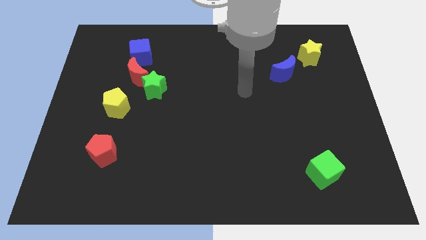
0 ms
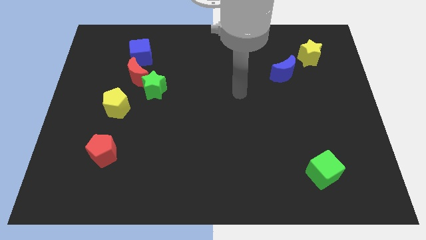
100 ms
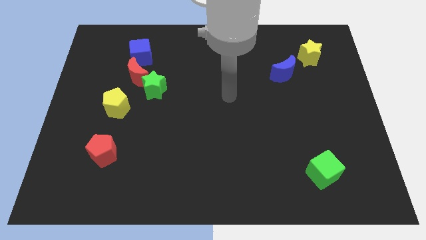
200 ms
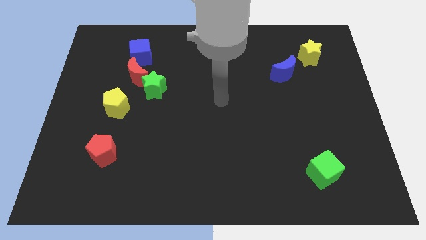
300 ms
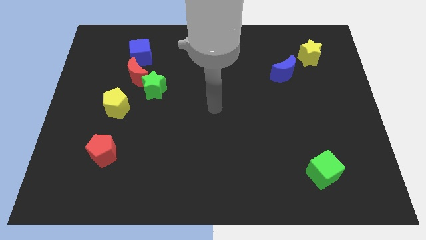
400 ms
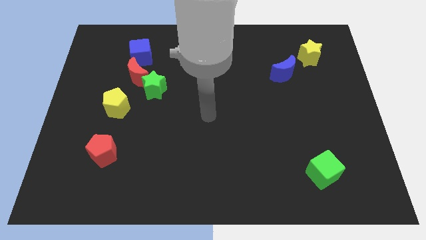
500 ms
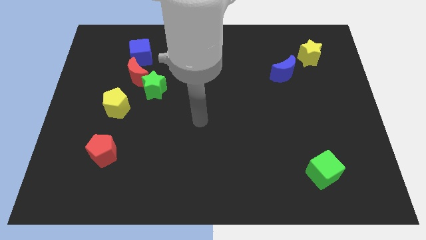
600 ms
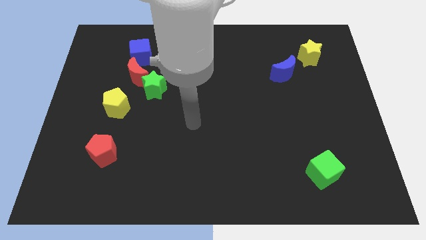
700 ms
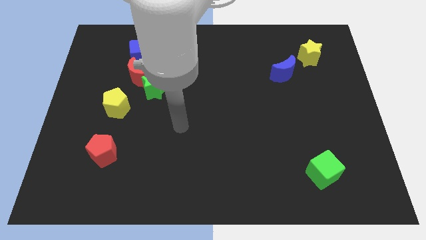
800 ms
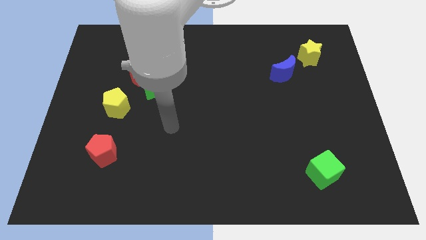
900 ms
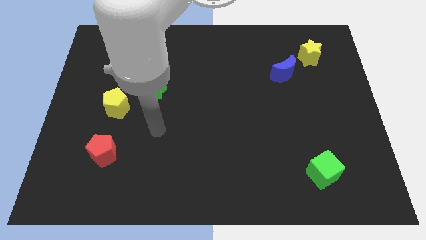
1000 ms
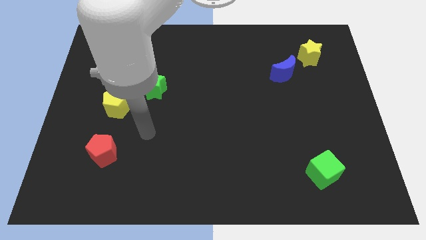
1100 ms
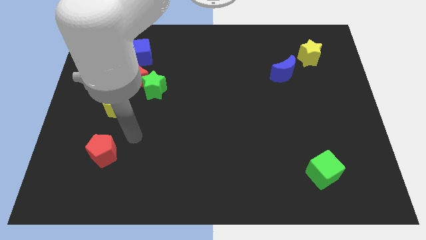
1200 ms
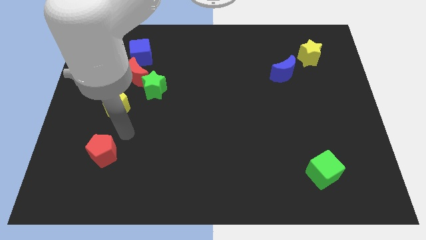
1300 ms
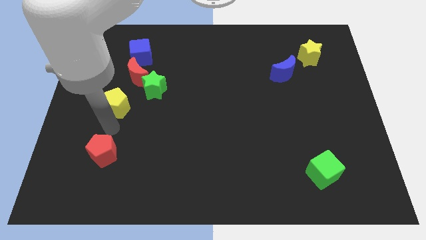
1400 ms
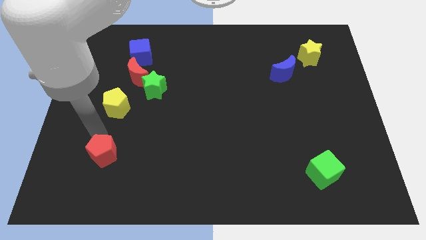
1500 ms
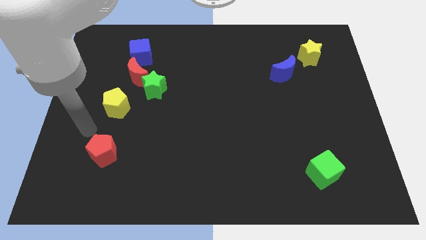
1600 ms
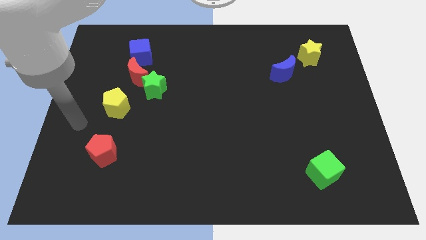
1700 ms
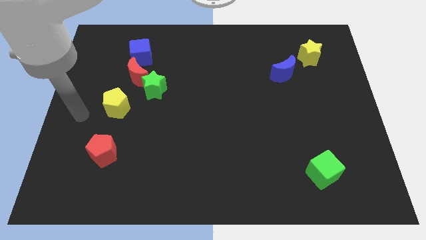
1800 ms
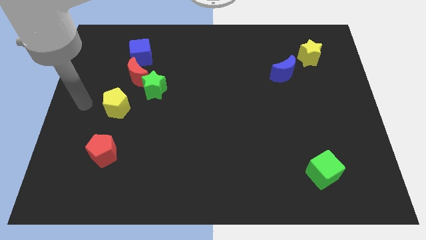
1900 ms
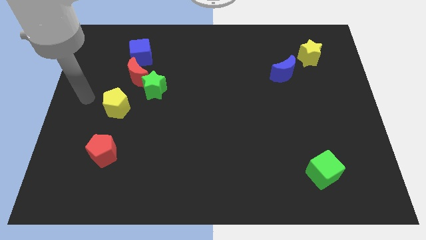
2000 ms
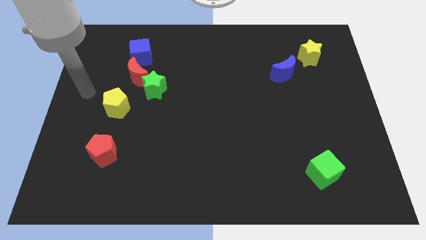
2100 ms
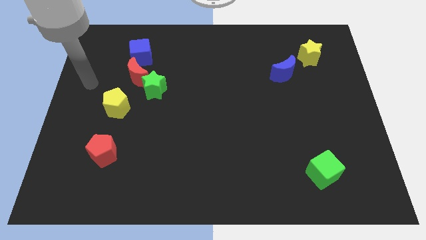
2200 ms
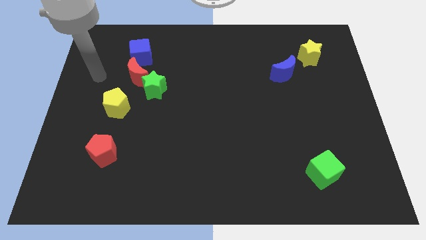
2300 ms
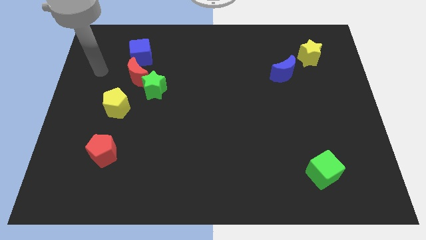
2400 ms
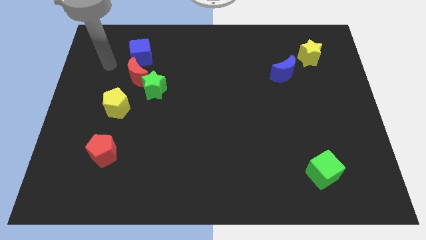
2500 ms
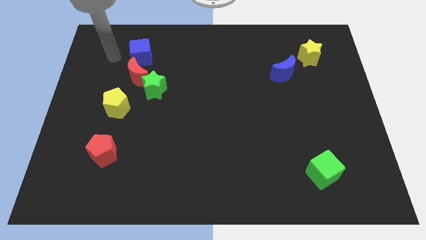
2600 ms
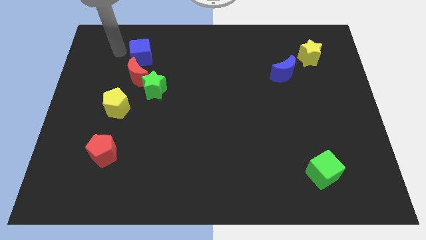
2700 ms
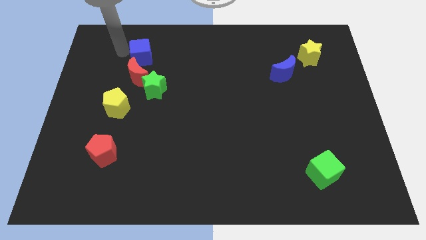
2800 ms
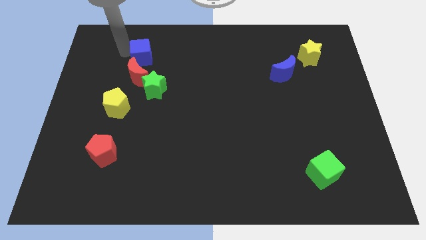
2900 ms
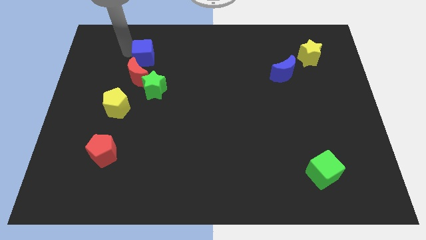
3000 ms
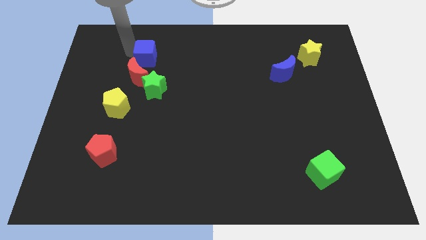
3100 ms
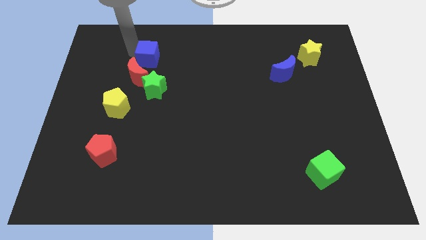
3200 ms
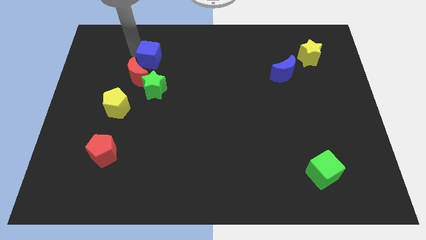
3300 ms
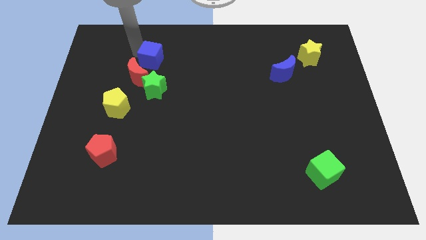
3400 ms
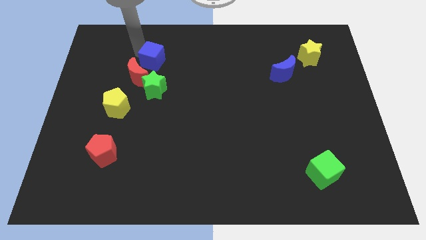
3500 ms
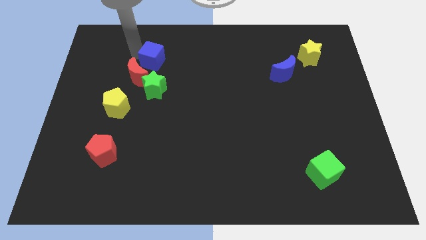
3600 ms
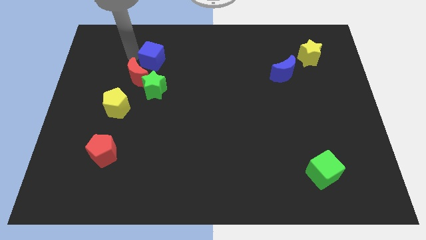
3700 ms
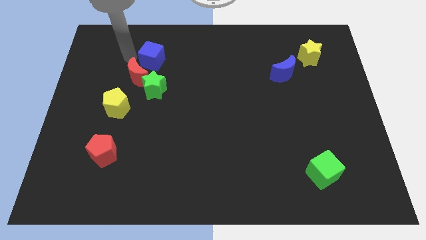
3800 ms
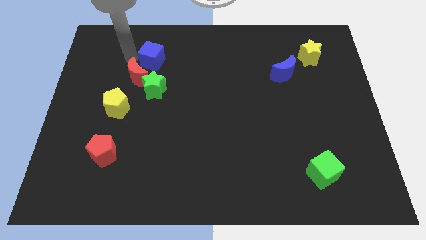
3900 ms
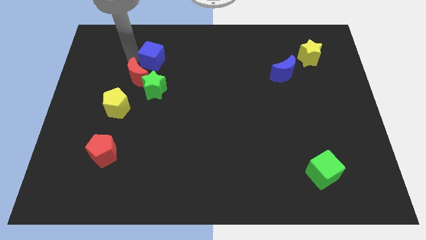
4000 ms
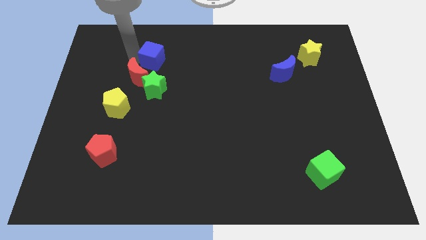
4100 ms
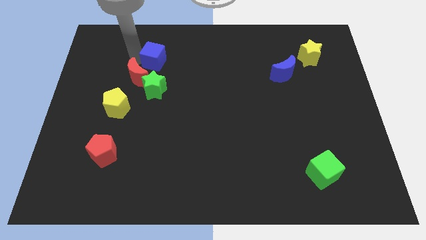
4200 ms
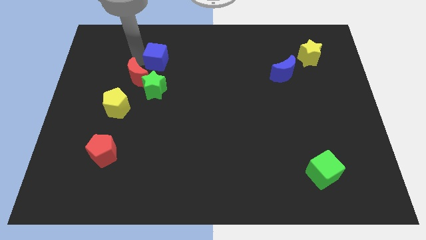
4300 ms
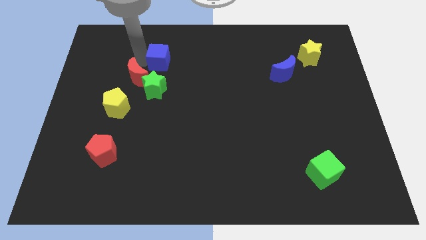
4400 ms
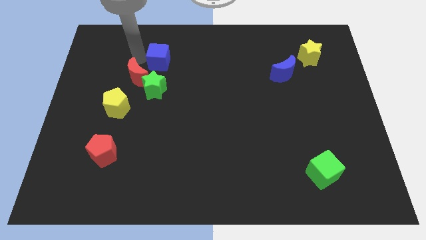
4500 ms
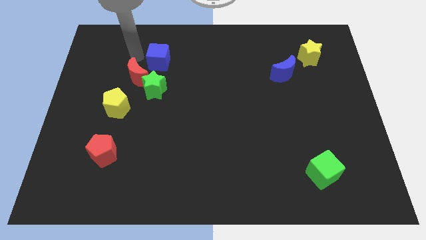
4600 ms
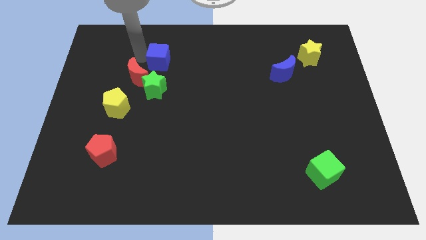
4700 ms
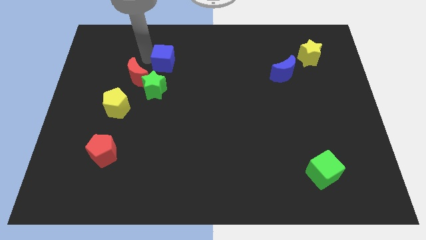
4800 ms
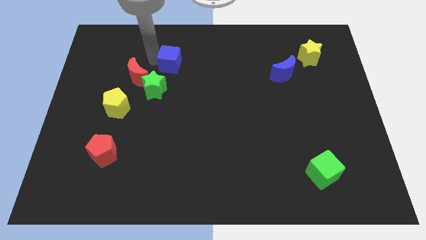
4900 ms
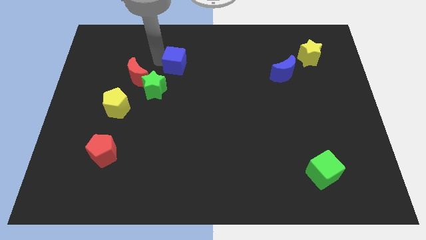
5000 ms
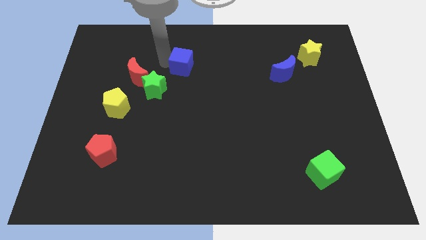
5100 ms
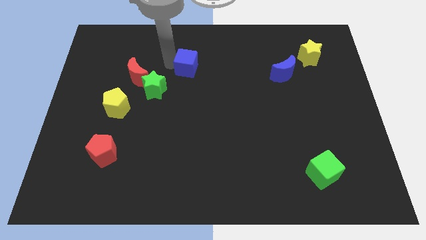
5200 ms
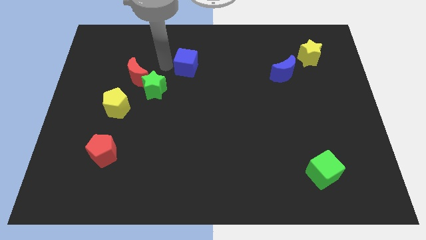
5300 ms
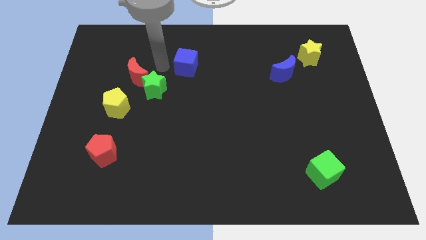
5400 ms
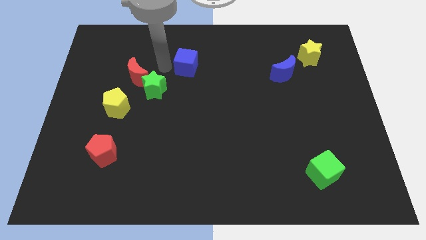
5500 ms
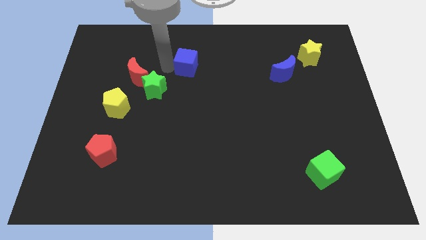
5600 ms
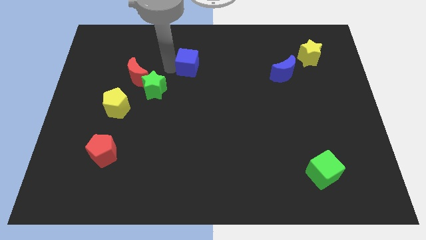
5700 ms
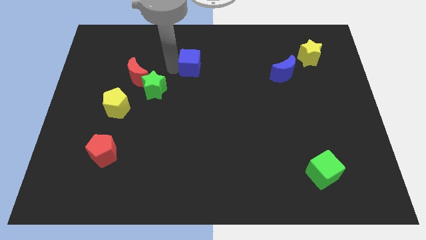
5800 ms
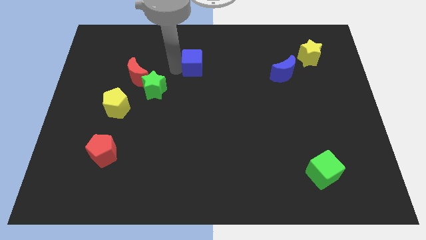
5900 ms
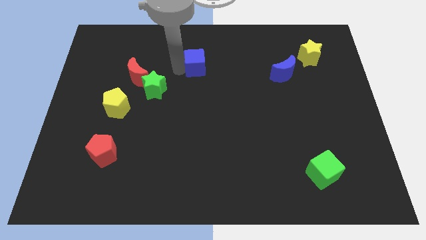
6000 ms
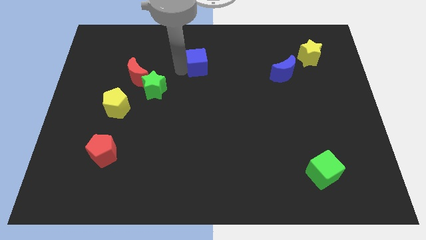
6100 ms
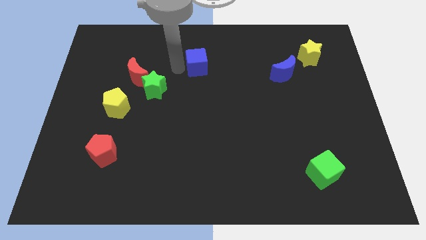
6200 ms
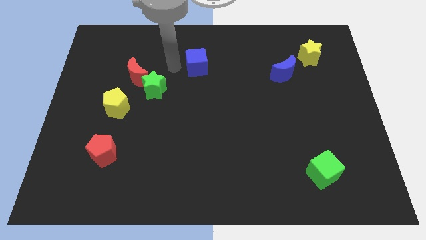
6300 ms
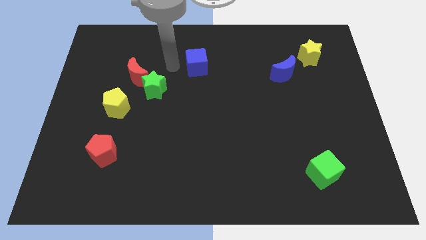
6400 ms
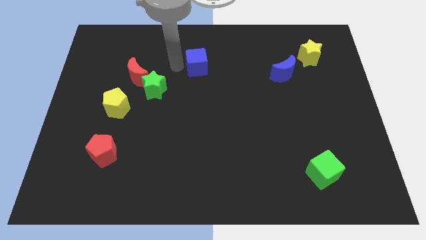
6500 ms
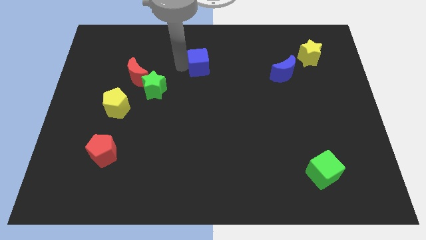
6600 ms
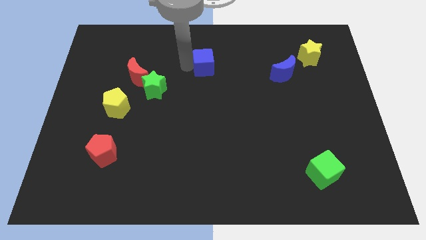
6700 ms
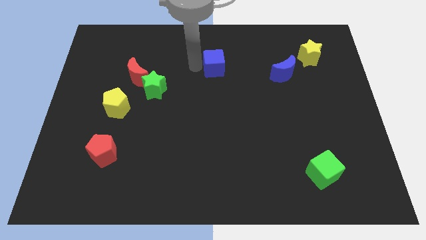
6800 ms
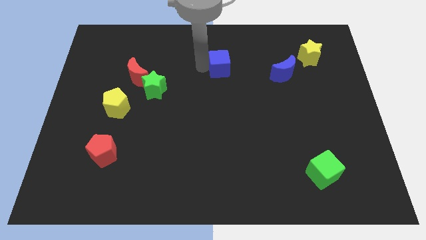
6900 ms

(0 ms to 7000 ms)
push the blue cube right

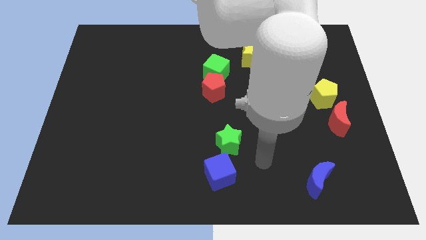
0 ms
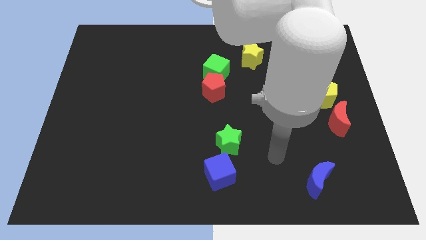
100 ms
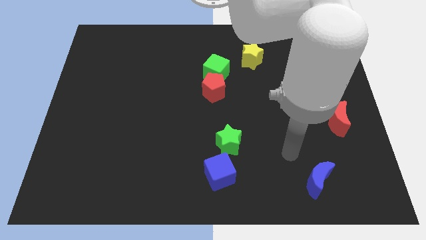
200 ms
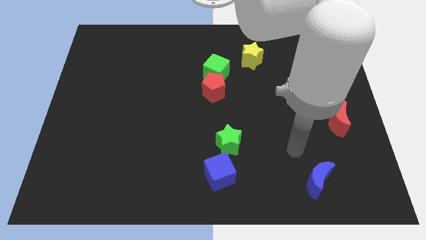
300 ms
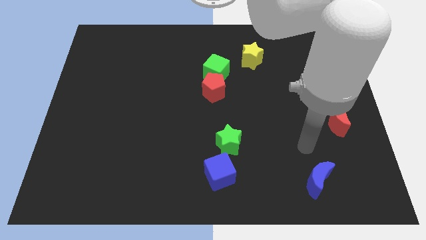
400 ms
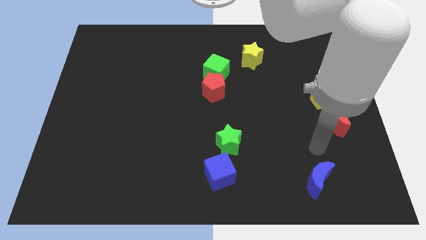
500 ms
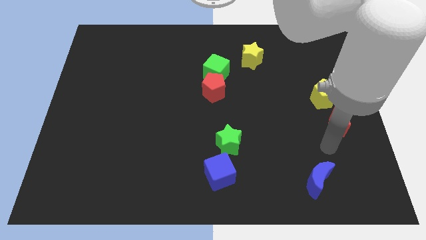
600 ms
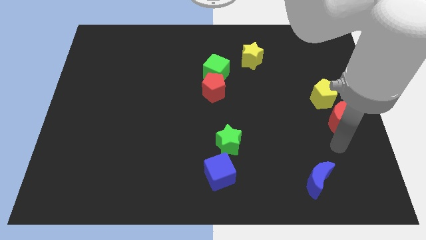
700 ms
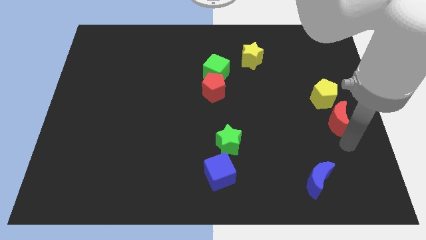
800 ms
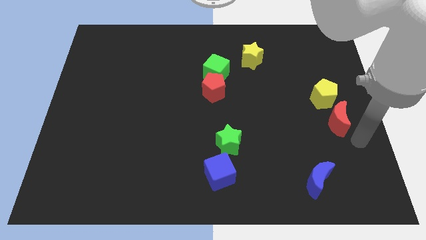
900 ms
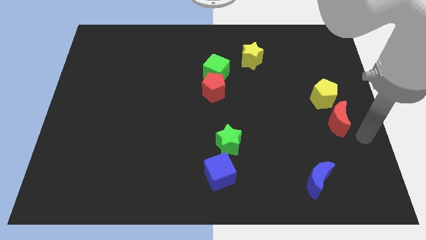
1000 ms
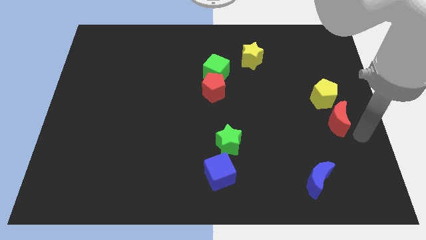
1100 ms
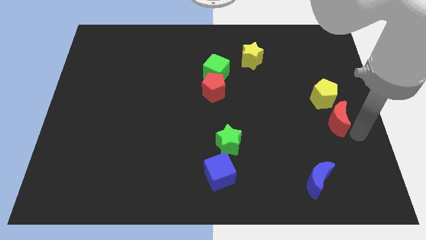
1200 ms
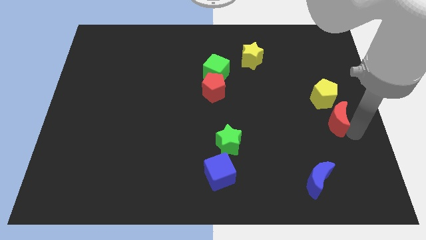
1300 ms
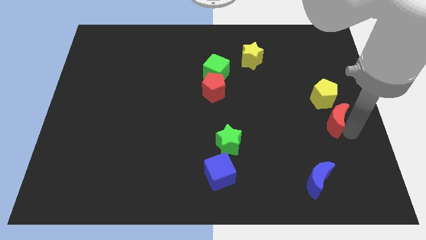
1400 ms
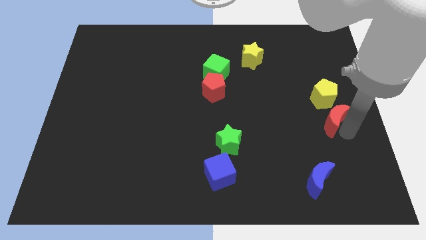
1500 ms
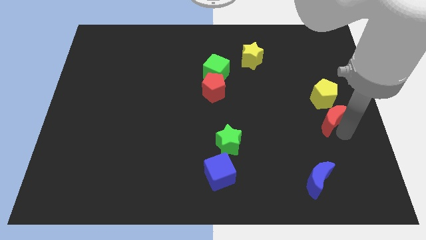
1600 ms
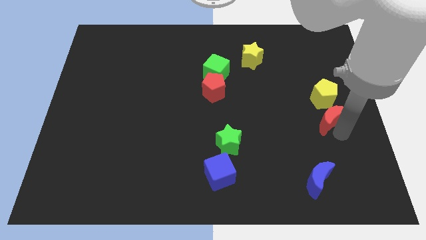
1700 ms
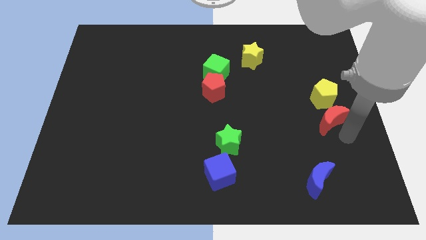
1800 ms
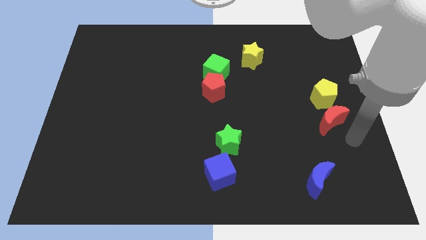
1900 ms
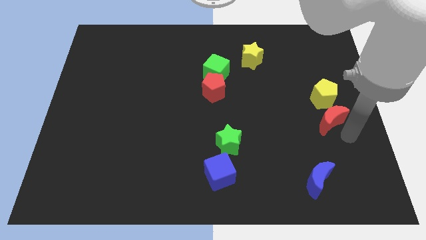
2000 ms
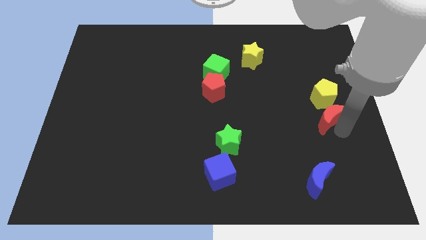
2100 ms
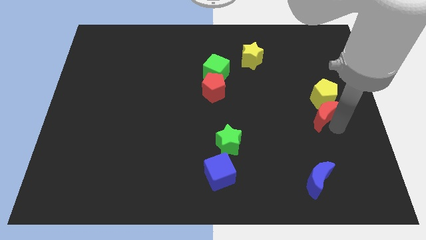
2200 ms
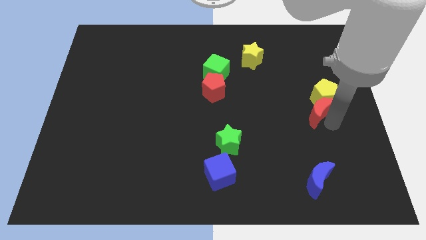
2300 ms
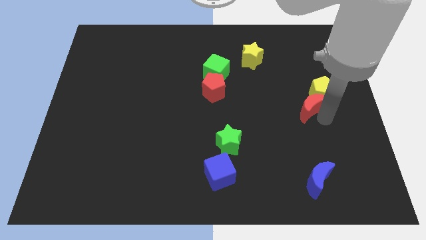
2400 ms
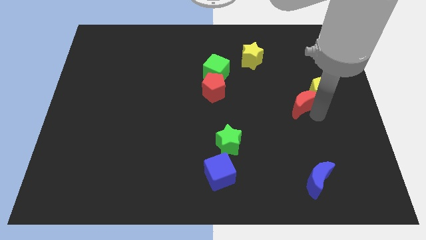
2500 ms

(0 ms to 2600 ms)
slightly move the red moon up and left
